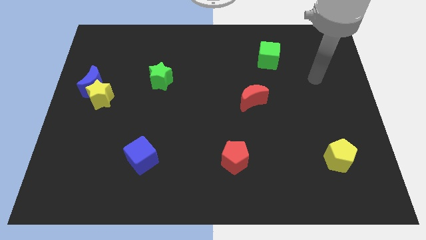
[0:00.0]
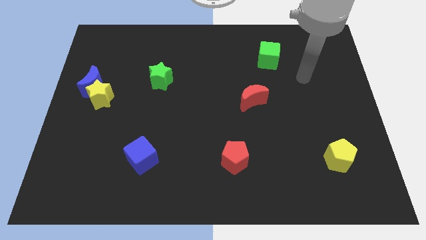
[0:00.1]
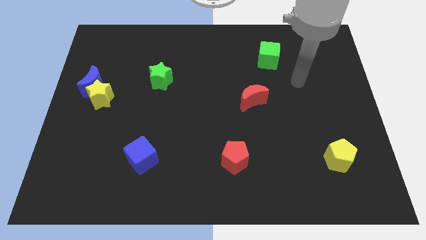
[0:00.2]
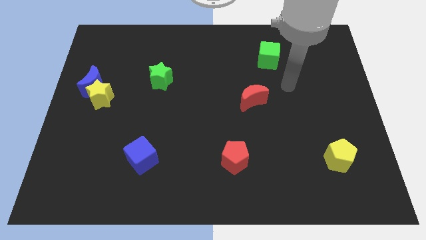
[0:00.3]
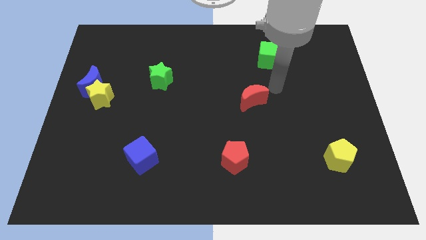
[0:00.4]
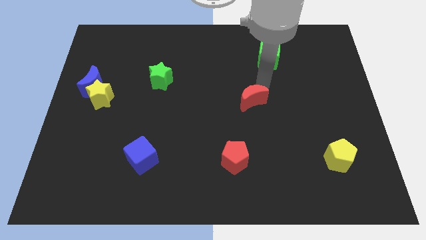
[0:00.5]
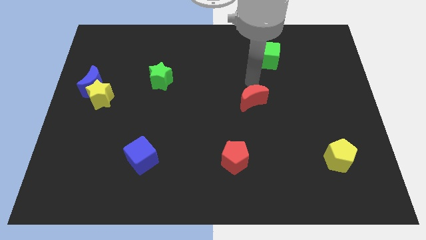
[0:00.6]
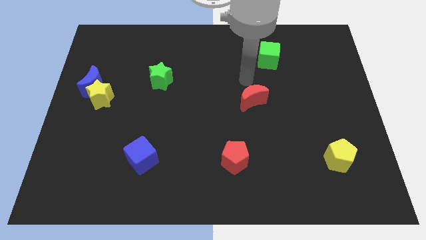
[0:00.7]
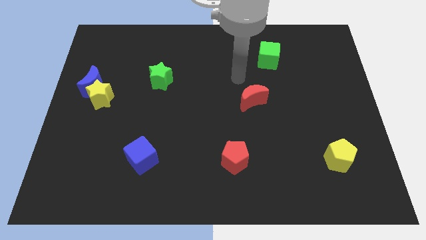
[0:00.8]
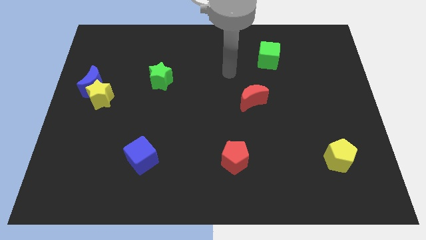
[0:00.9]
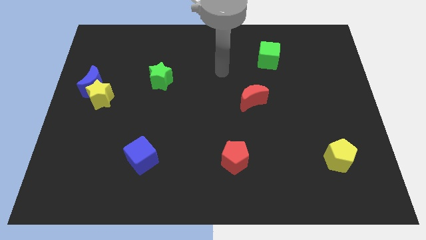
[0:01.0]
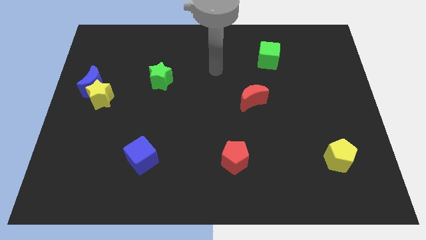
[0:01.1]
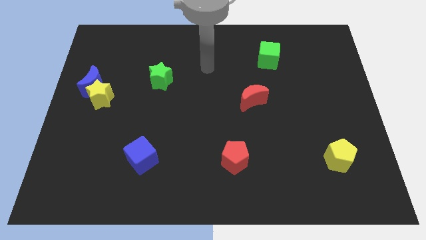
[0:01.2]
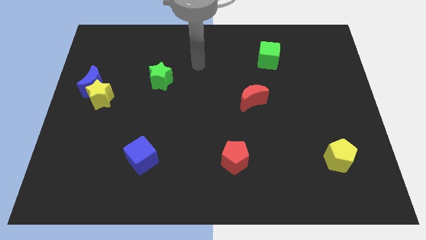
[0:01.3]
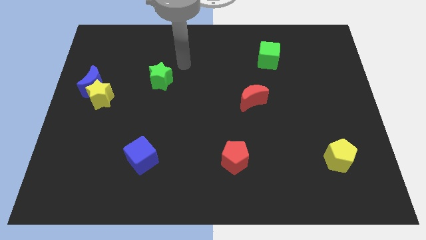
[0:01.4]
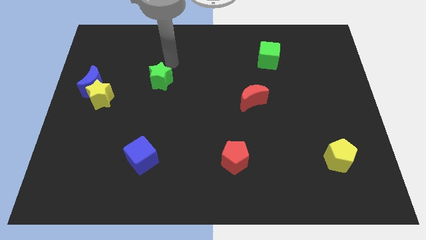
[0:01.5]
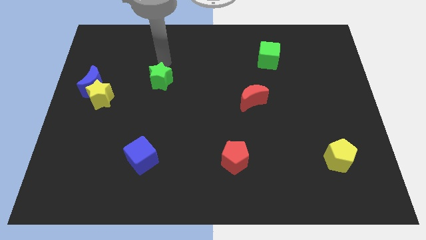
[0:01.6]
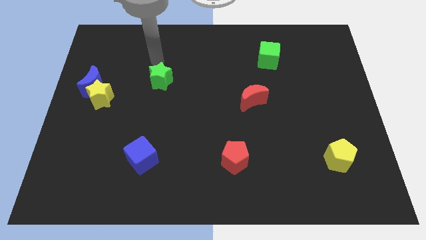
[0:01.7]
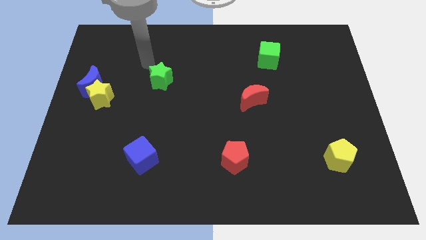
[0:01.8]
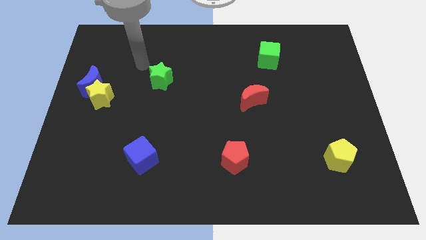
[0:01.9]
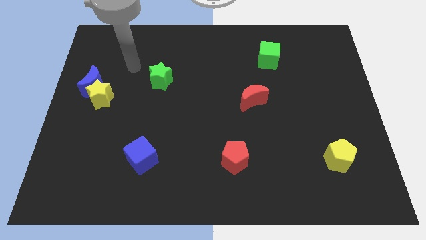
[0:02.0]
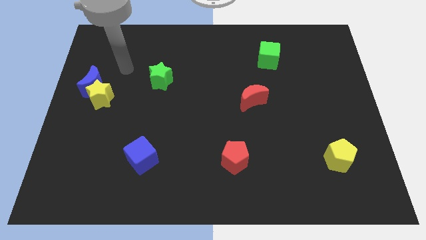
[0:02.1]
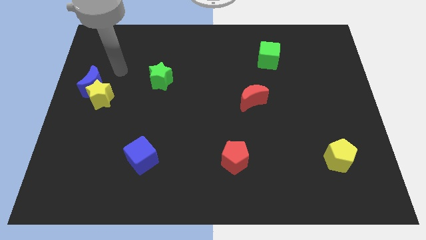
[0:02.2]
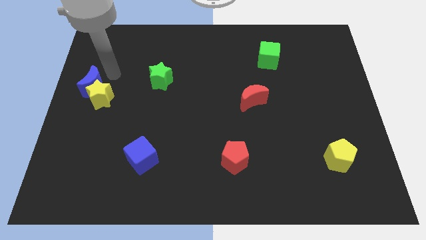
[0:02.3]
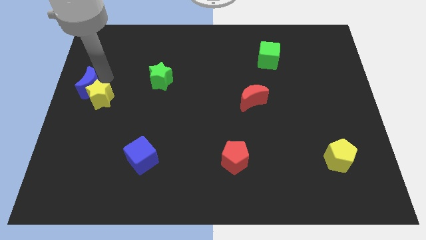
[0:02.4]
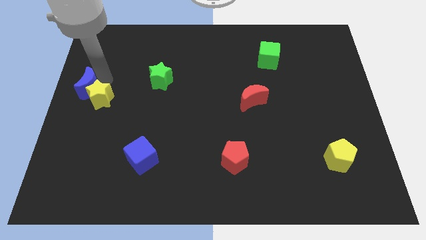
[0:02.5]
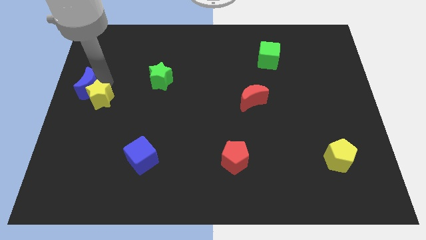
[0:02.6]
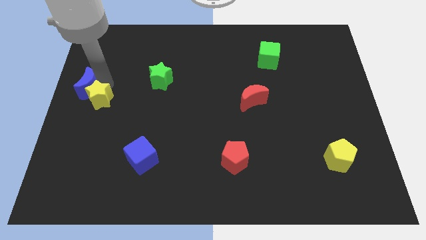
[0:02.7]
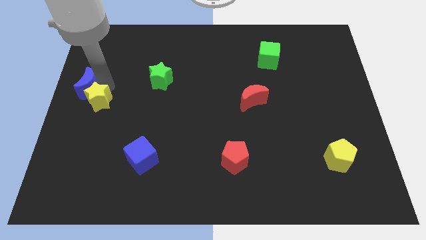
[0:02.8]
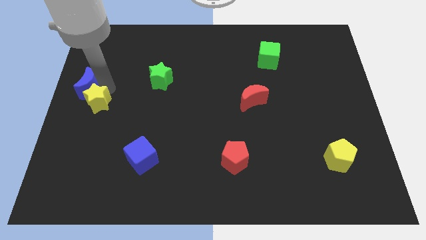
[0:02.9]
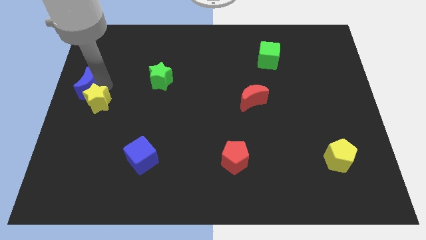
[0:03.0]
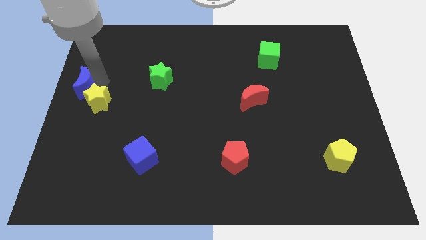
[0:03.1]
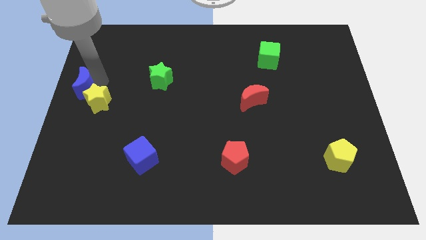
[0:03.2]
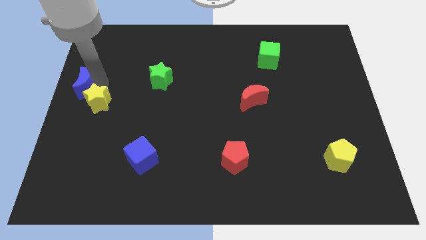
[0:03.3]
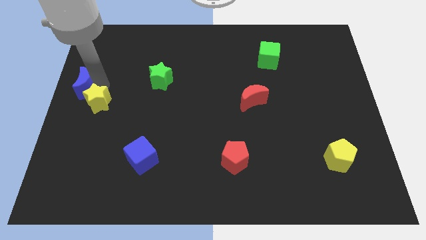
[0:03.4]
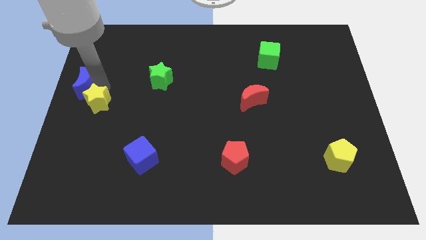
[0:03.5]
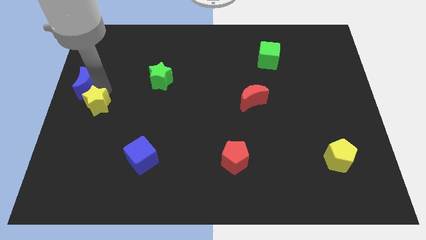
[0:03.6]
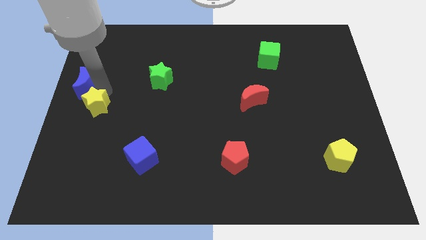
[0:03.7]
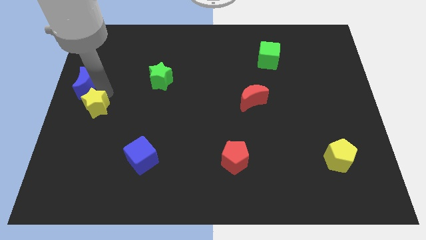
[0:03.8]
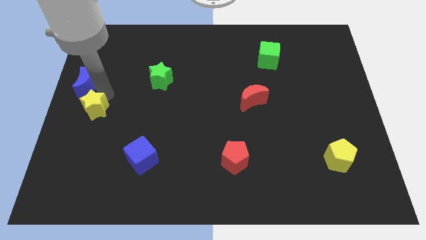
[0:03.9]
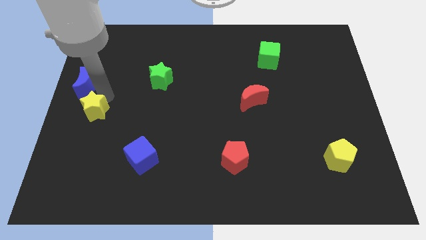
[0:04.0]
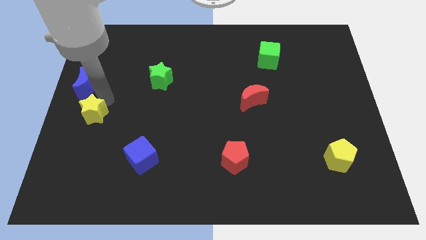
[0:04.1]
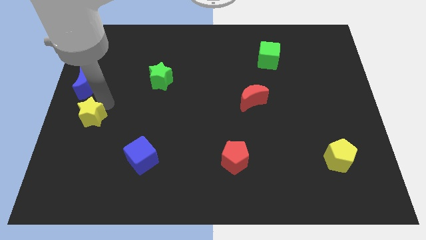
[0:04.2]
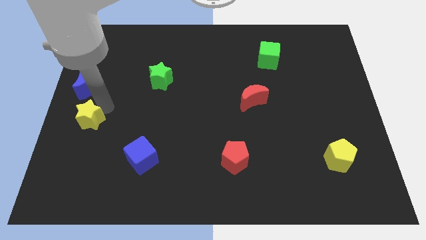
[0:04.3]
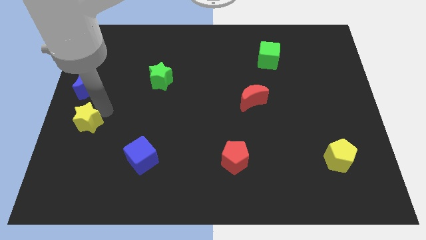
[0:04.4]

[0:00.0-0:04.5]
push the yellow star a little bit downwards

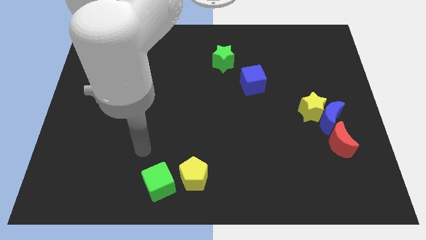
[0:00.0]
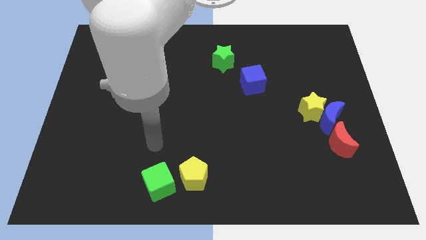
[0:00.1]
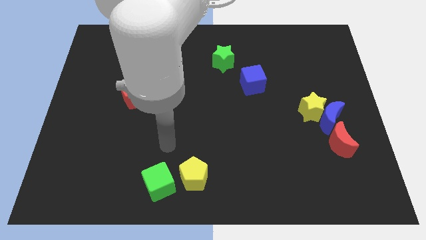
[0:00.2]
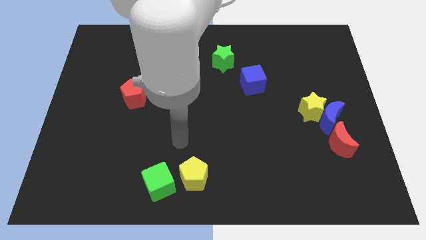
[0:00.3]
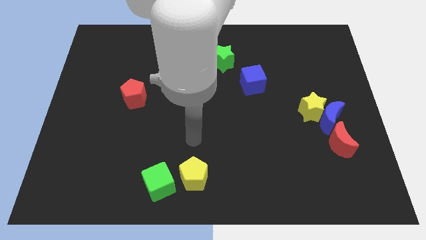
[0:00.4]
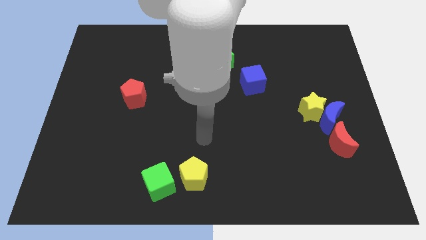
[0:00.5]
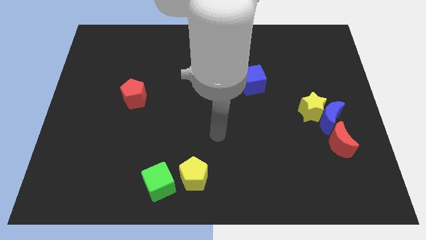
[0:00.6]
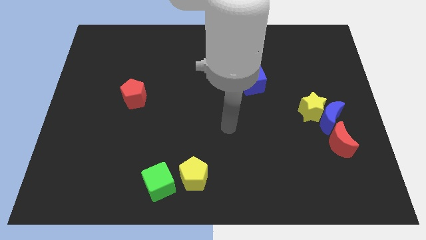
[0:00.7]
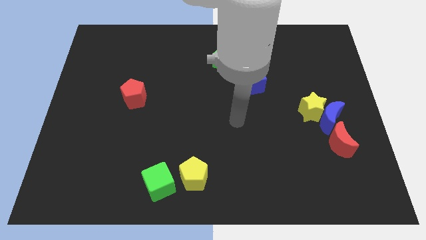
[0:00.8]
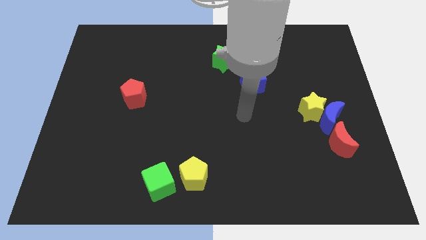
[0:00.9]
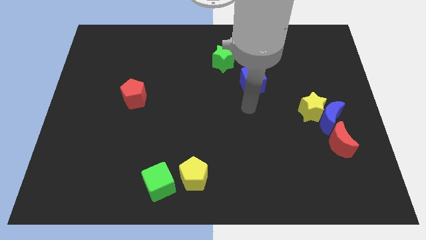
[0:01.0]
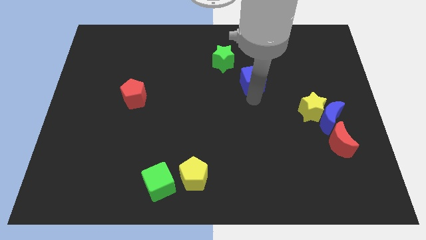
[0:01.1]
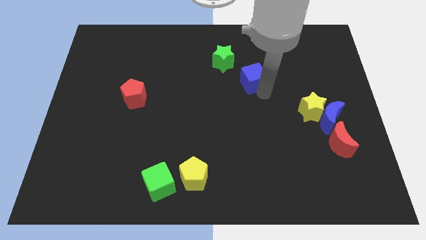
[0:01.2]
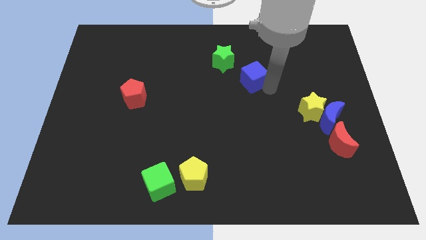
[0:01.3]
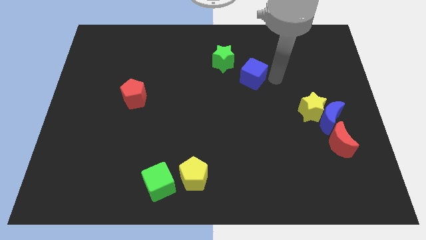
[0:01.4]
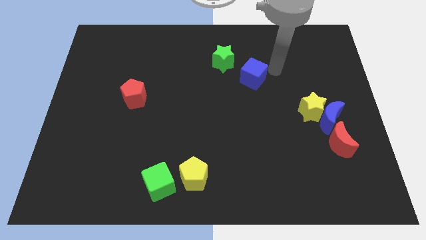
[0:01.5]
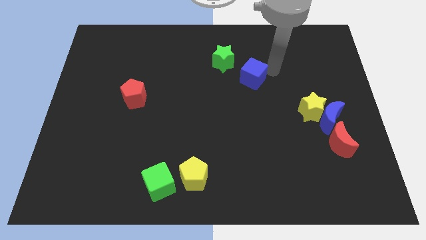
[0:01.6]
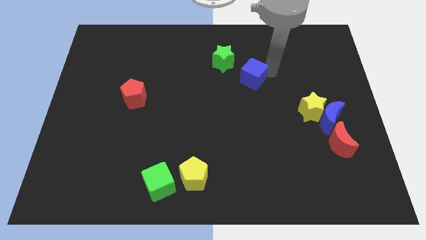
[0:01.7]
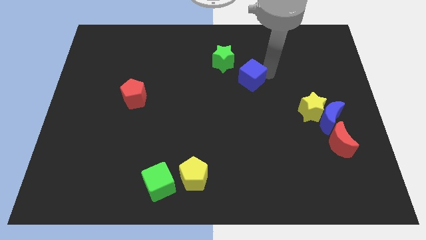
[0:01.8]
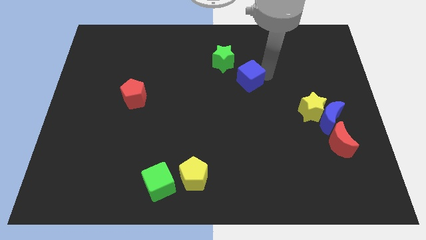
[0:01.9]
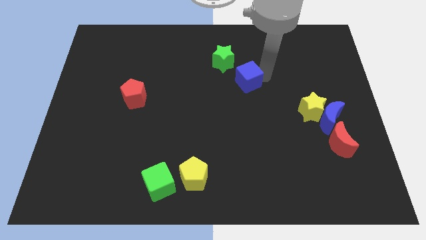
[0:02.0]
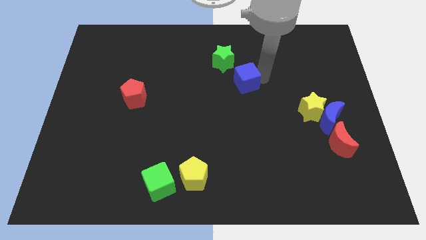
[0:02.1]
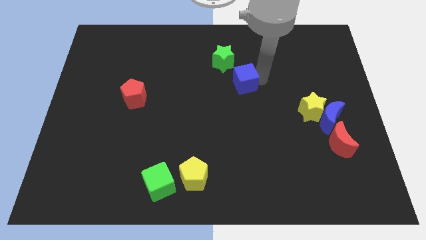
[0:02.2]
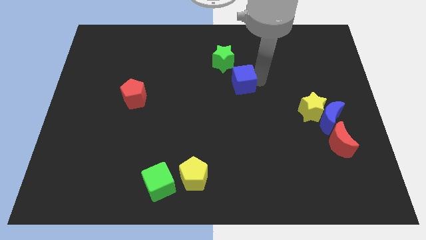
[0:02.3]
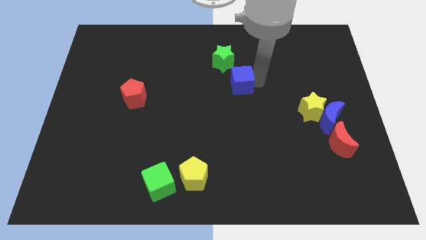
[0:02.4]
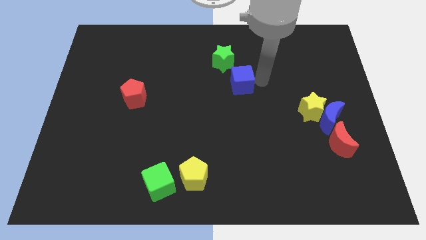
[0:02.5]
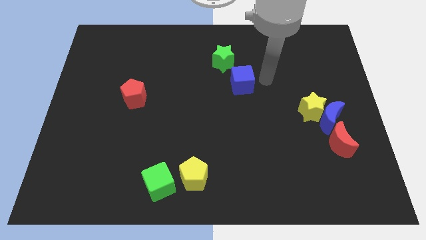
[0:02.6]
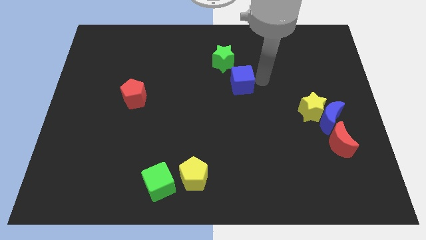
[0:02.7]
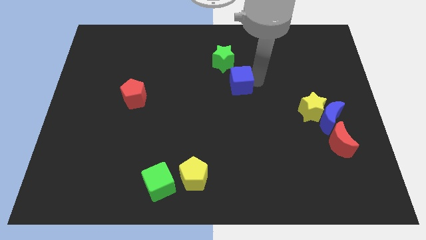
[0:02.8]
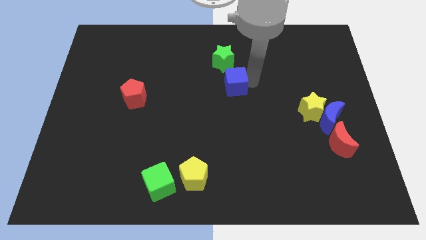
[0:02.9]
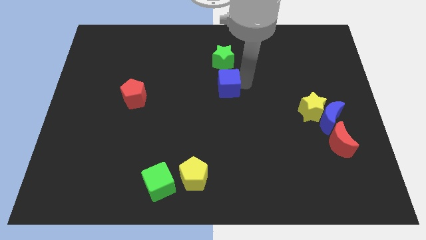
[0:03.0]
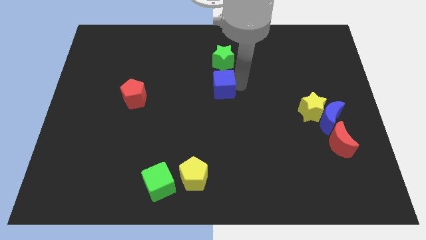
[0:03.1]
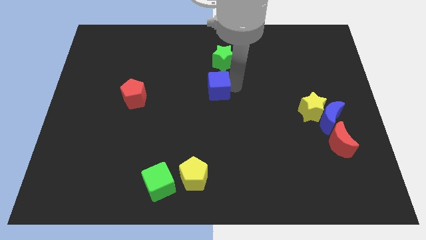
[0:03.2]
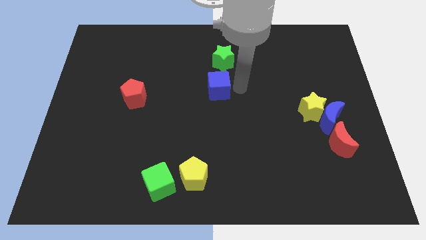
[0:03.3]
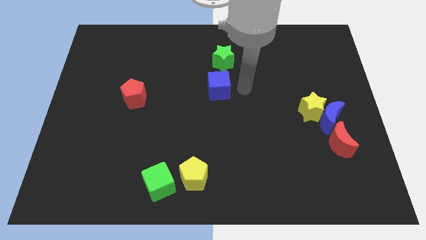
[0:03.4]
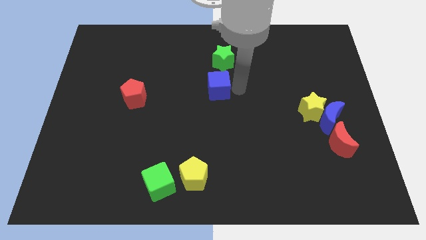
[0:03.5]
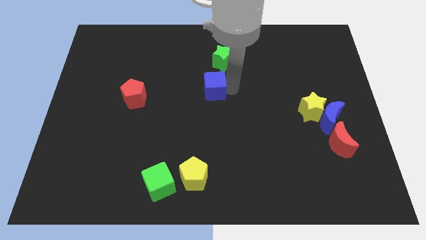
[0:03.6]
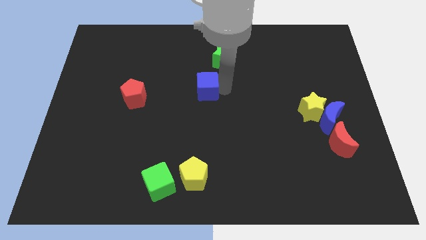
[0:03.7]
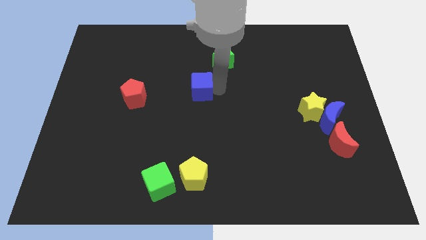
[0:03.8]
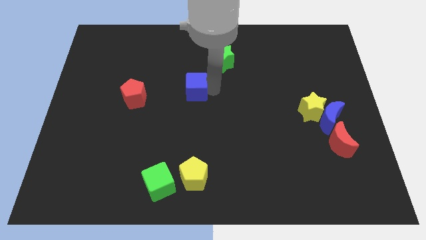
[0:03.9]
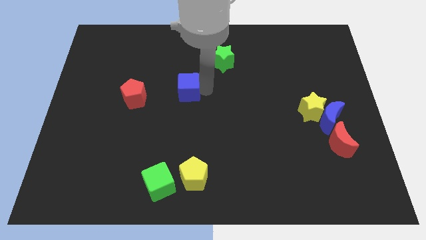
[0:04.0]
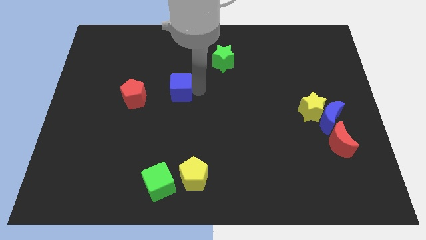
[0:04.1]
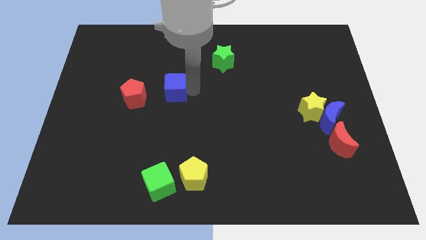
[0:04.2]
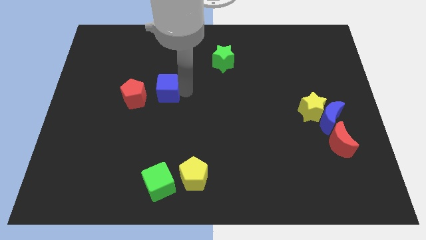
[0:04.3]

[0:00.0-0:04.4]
slide the blue cube to the left
